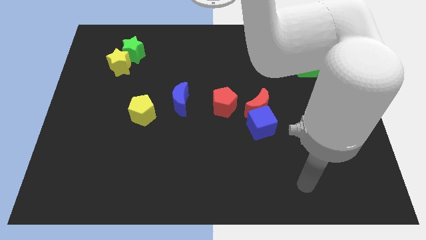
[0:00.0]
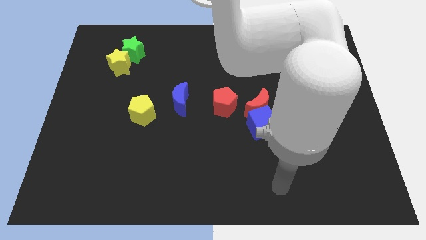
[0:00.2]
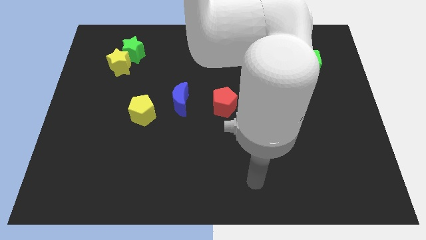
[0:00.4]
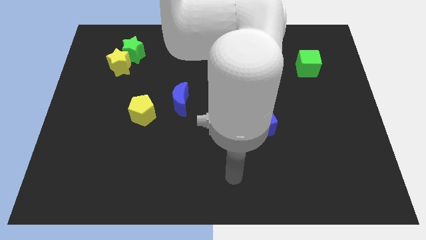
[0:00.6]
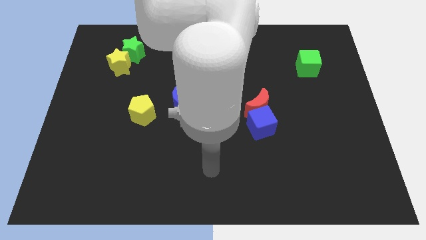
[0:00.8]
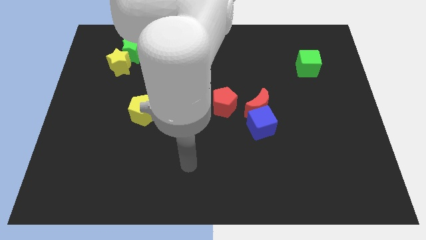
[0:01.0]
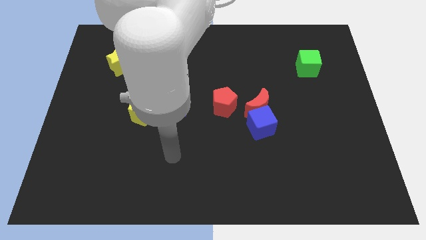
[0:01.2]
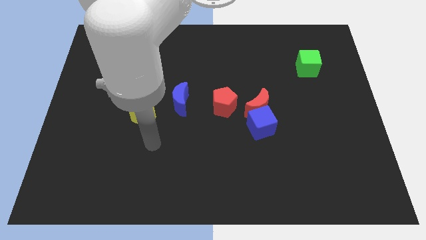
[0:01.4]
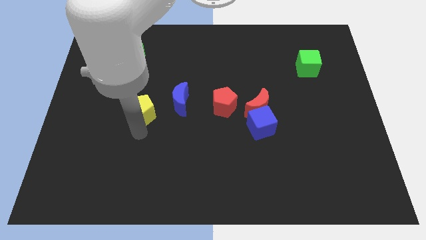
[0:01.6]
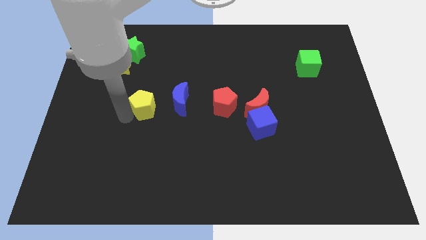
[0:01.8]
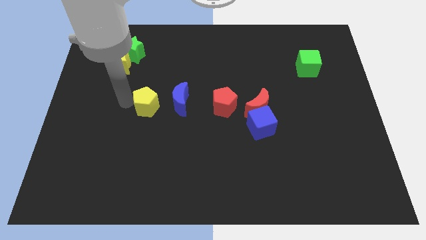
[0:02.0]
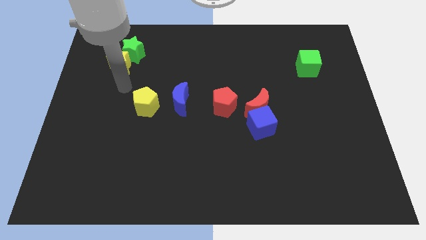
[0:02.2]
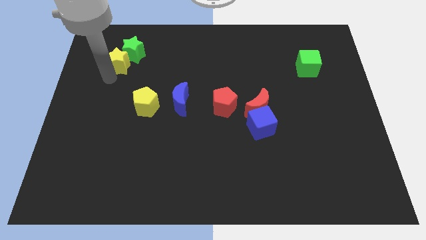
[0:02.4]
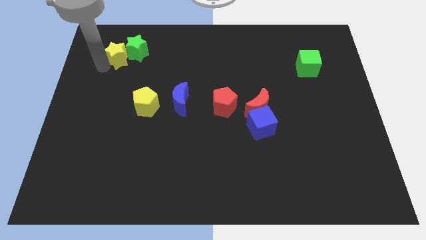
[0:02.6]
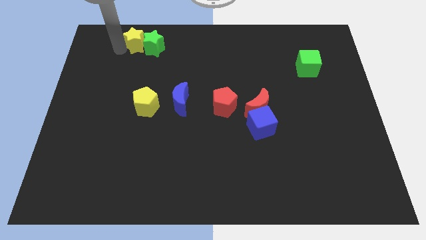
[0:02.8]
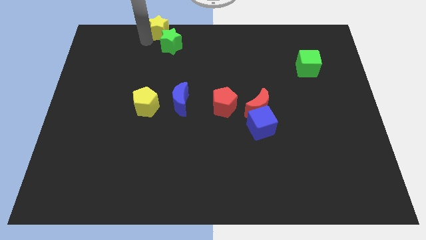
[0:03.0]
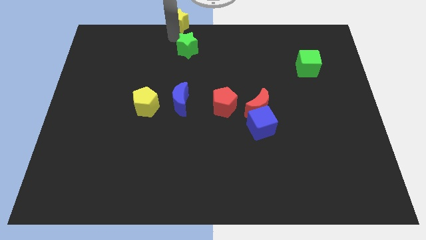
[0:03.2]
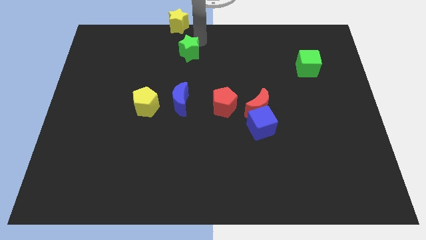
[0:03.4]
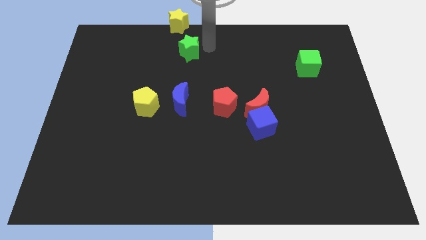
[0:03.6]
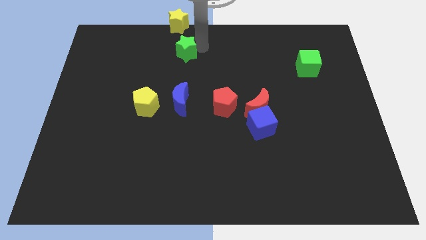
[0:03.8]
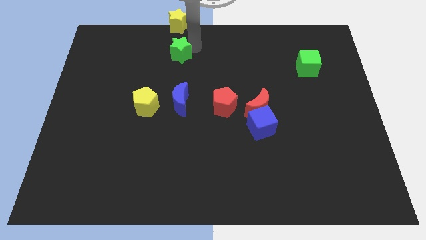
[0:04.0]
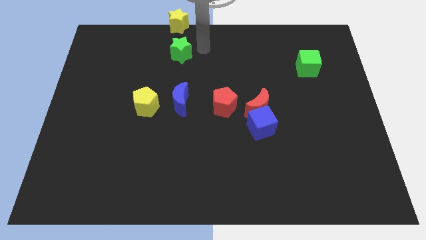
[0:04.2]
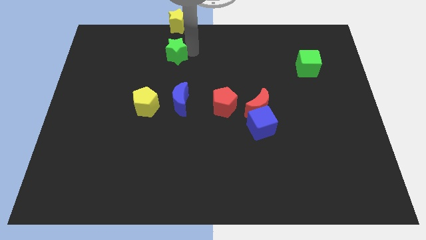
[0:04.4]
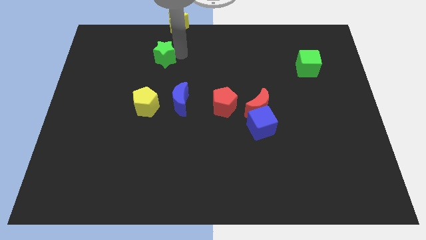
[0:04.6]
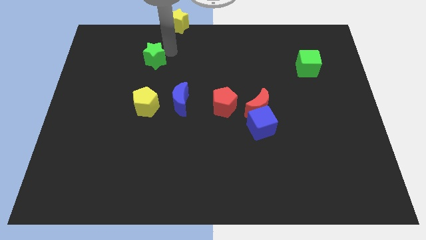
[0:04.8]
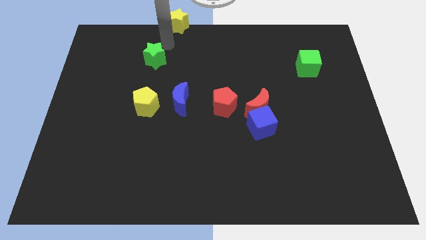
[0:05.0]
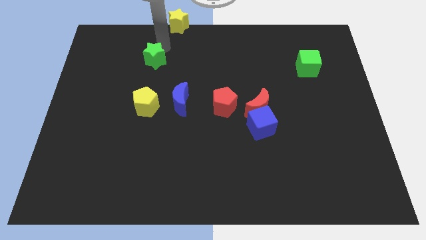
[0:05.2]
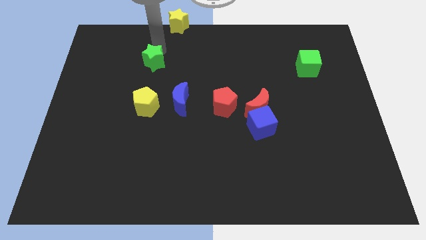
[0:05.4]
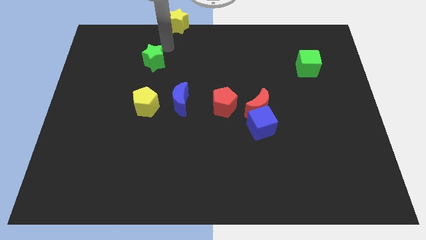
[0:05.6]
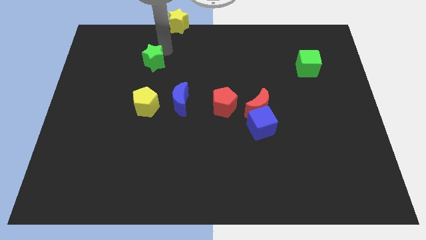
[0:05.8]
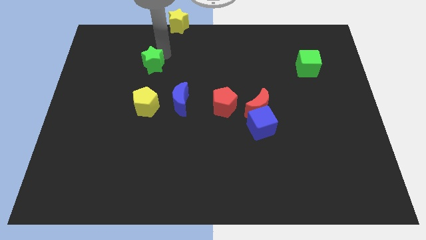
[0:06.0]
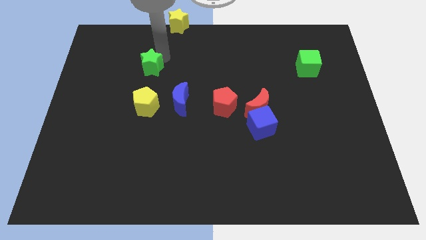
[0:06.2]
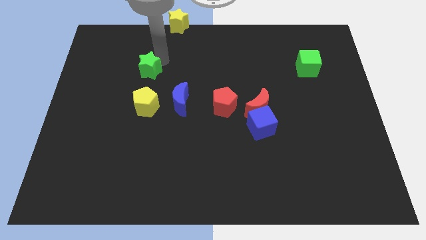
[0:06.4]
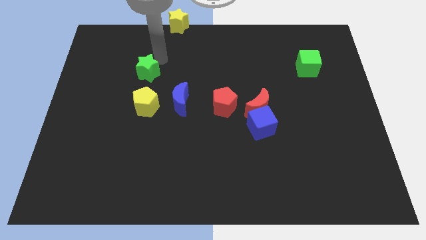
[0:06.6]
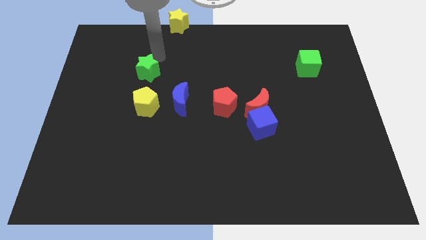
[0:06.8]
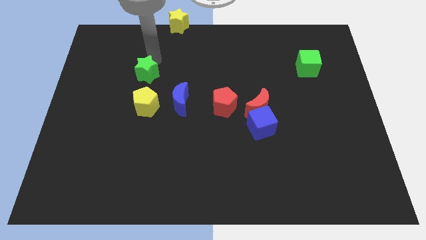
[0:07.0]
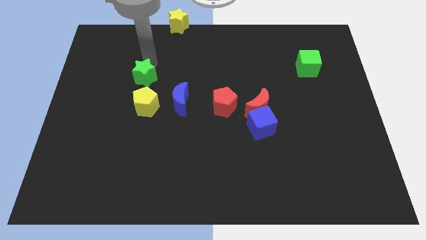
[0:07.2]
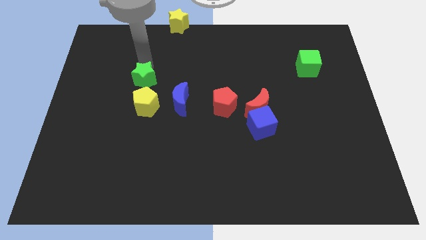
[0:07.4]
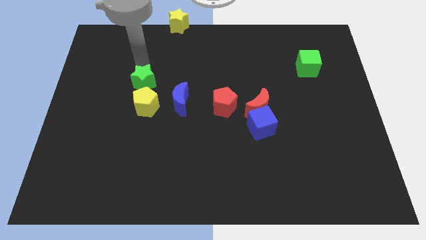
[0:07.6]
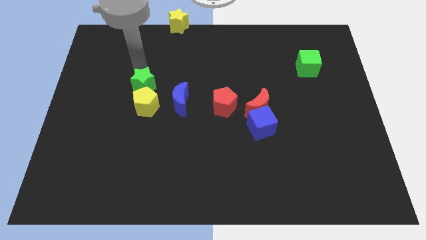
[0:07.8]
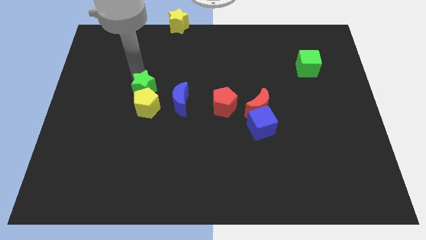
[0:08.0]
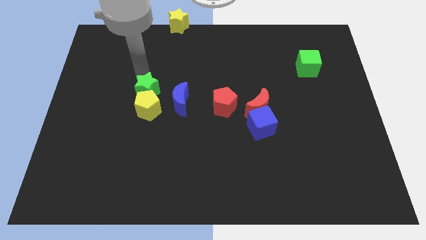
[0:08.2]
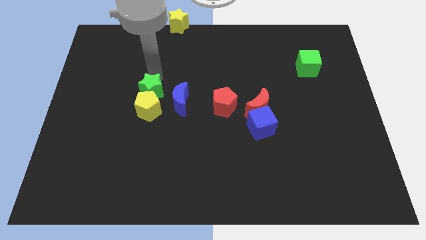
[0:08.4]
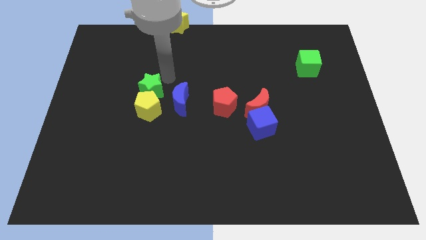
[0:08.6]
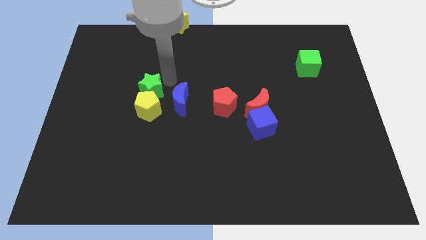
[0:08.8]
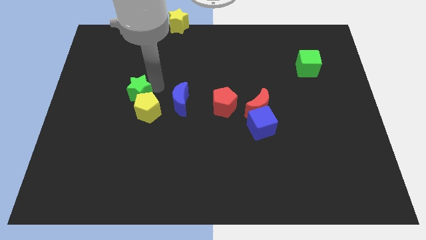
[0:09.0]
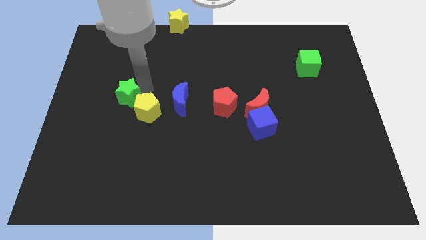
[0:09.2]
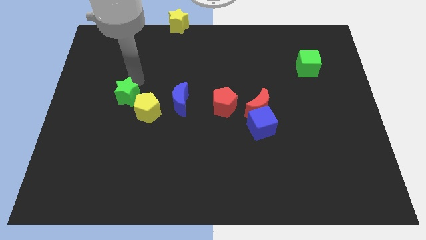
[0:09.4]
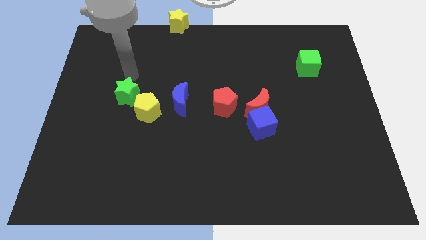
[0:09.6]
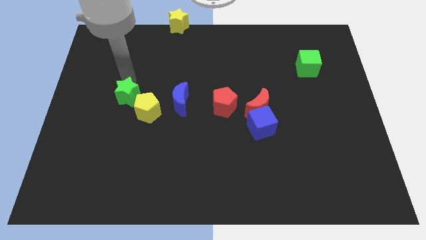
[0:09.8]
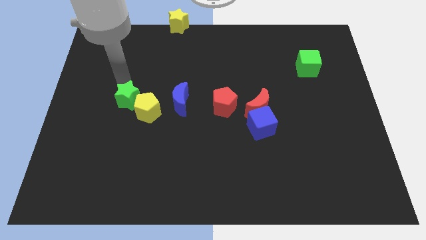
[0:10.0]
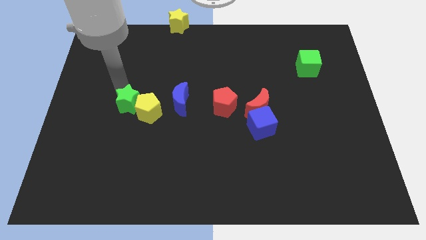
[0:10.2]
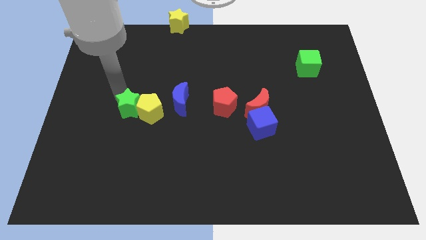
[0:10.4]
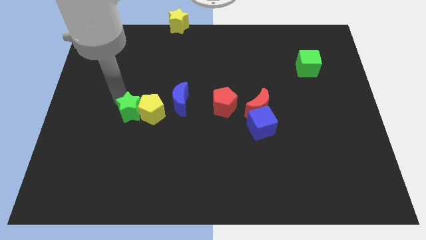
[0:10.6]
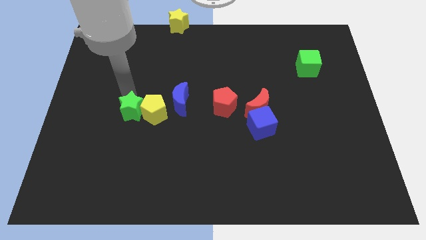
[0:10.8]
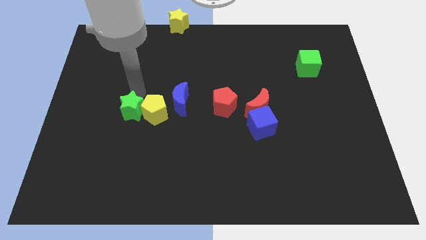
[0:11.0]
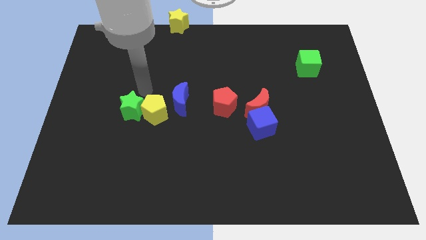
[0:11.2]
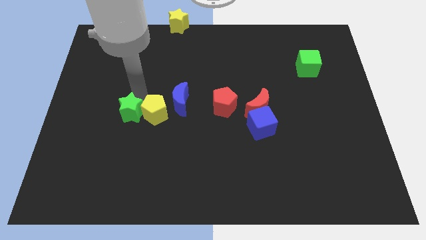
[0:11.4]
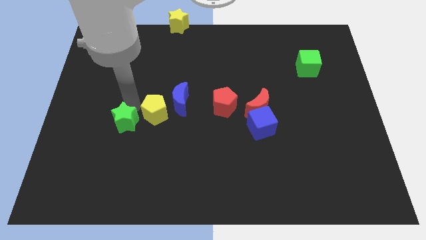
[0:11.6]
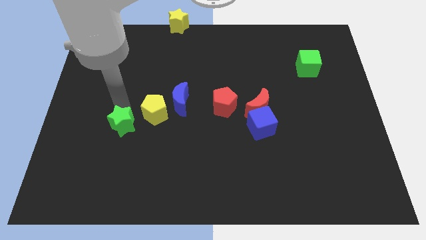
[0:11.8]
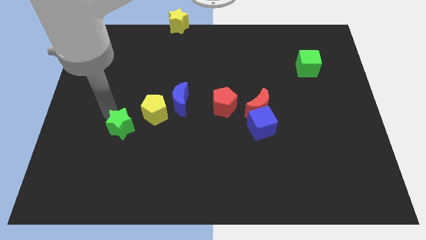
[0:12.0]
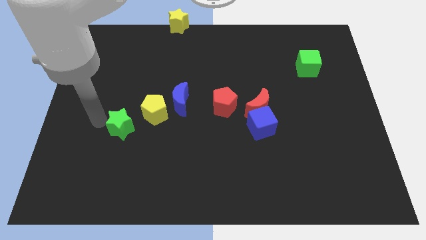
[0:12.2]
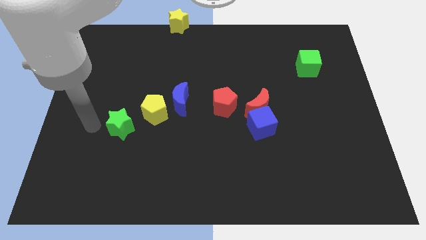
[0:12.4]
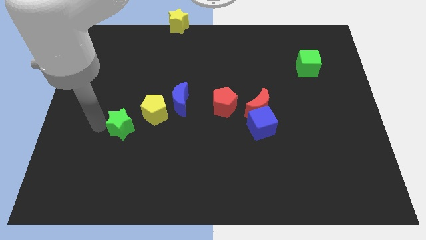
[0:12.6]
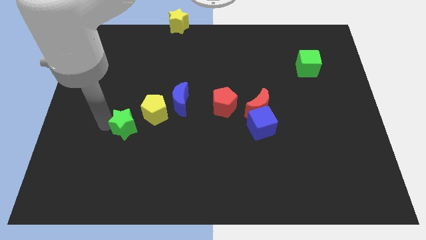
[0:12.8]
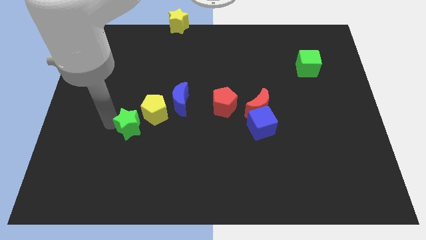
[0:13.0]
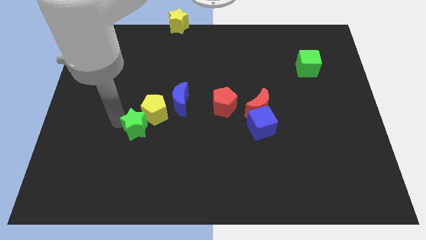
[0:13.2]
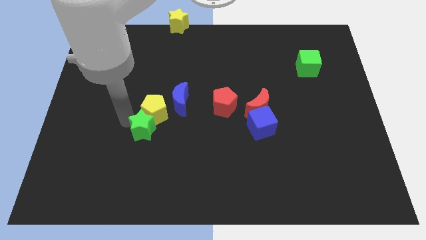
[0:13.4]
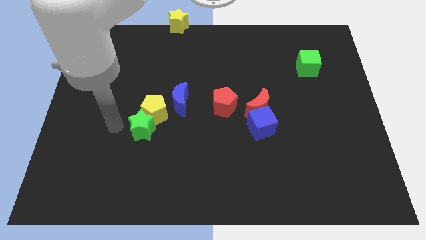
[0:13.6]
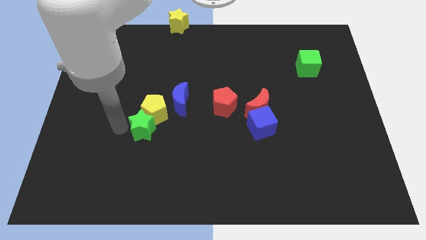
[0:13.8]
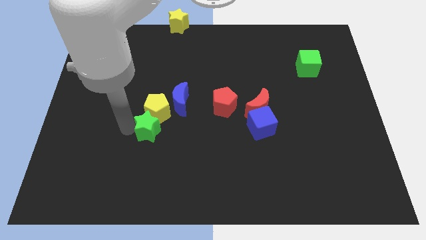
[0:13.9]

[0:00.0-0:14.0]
slide the green star diagonally down and to the right of the yellow pentagon
